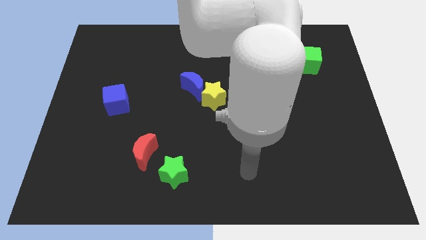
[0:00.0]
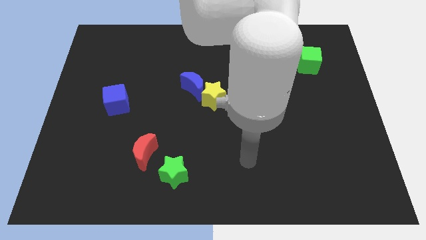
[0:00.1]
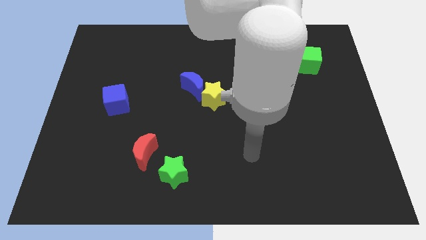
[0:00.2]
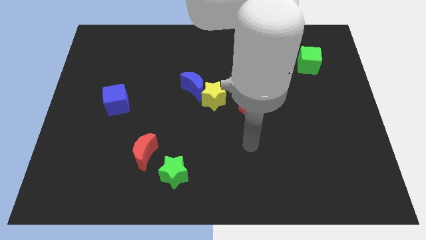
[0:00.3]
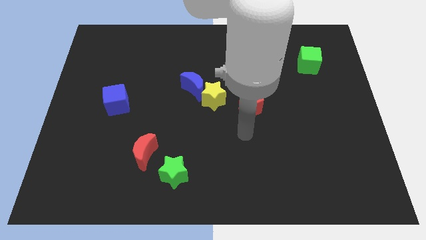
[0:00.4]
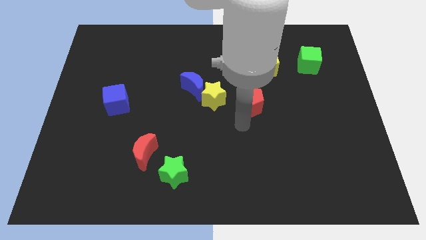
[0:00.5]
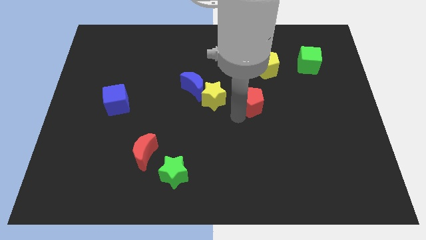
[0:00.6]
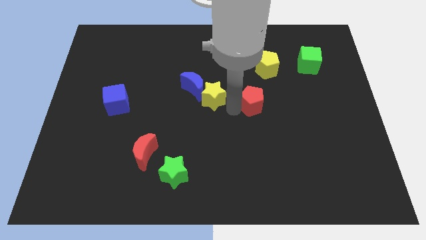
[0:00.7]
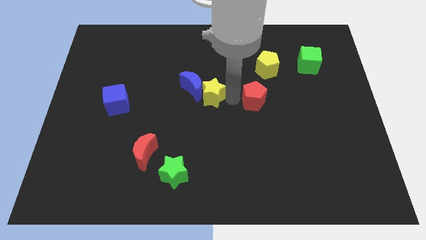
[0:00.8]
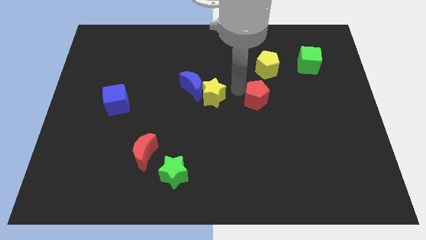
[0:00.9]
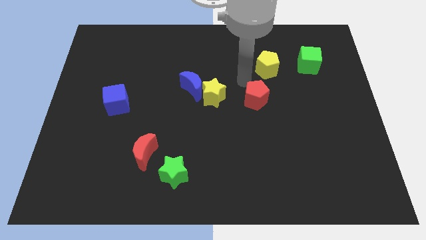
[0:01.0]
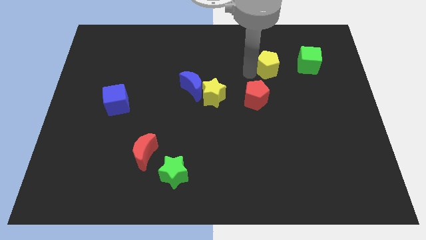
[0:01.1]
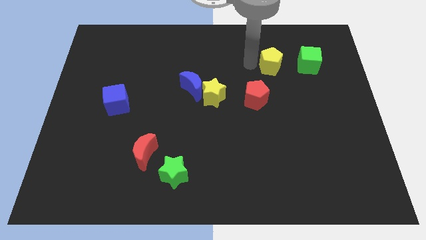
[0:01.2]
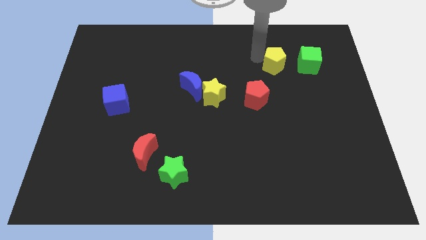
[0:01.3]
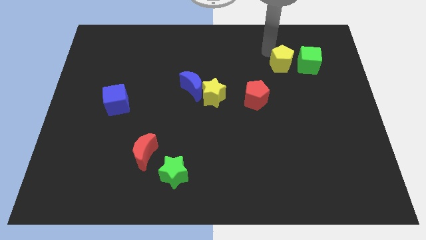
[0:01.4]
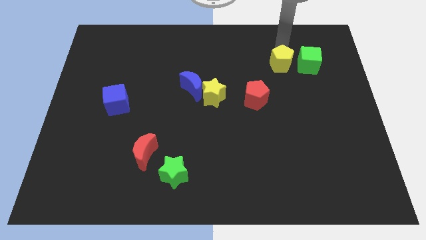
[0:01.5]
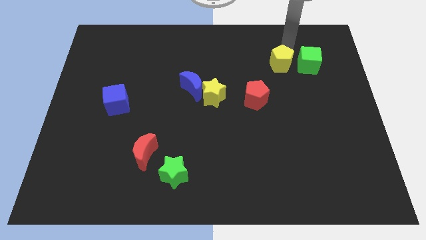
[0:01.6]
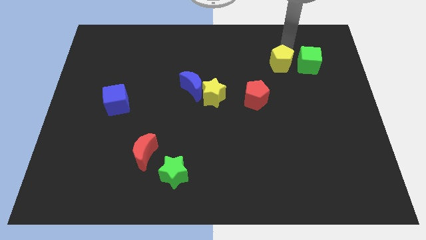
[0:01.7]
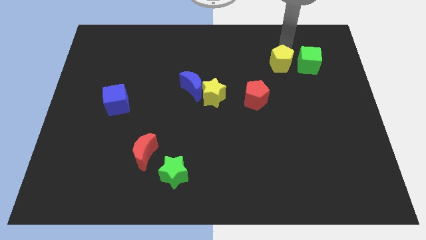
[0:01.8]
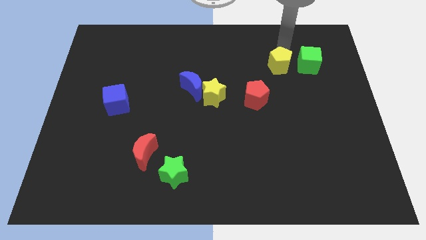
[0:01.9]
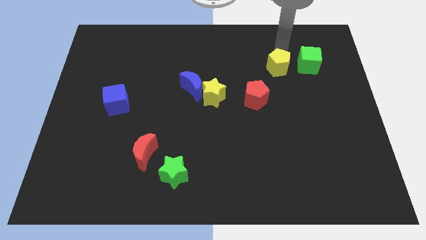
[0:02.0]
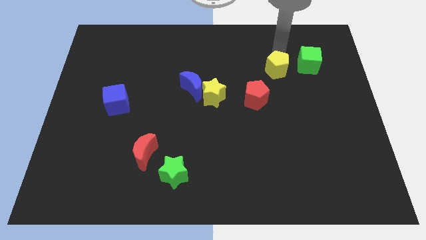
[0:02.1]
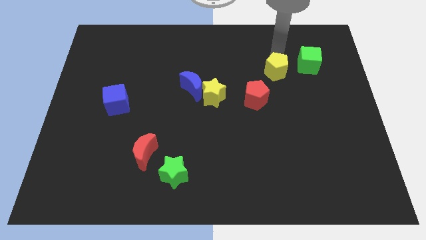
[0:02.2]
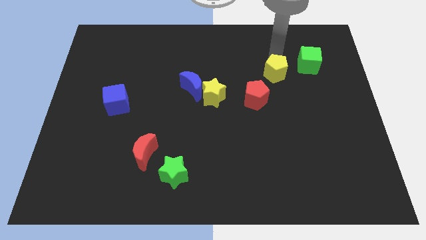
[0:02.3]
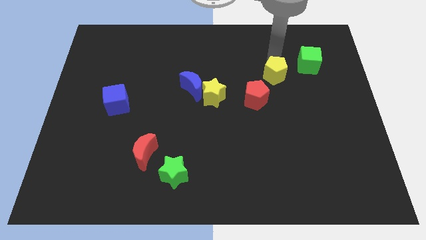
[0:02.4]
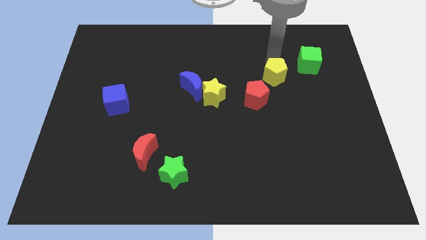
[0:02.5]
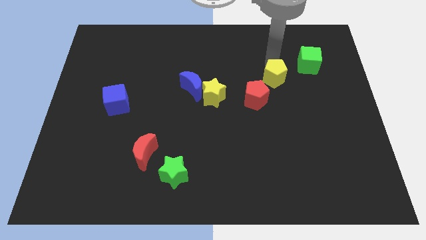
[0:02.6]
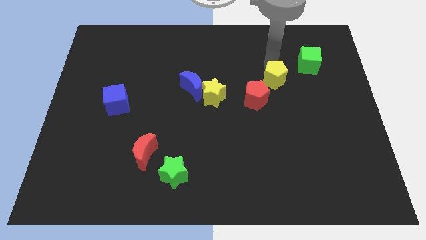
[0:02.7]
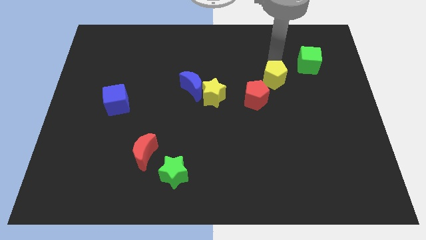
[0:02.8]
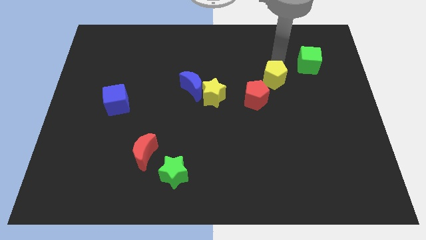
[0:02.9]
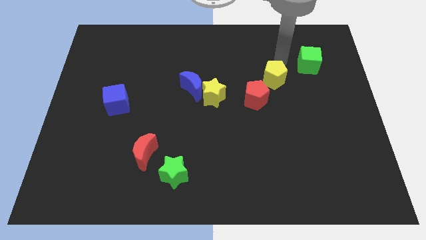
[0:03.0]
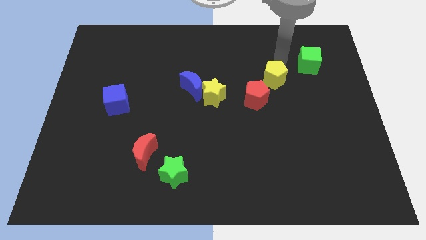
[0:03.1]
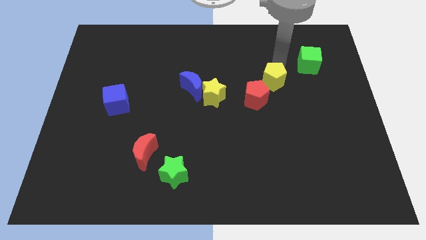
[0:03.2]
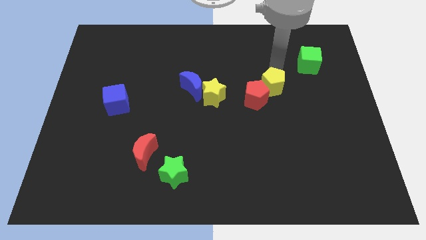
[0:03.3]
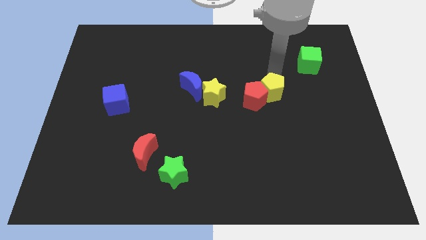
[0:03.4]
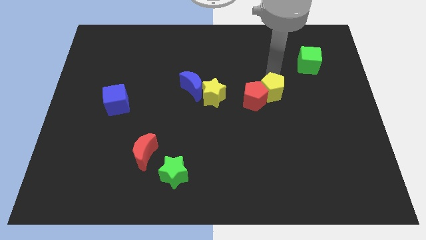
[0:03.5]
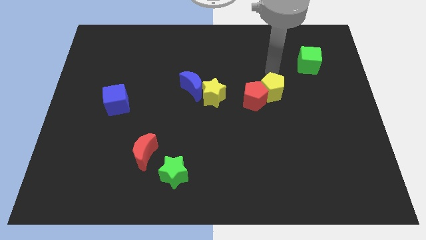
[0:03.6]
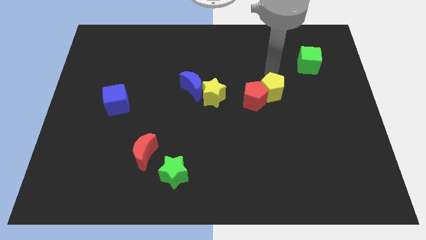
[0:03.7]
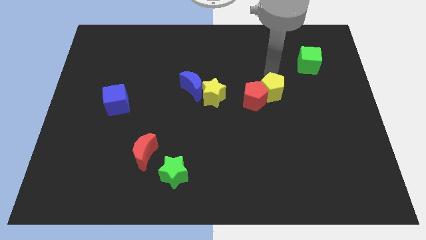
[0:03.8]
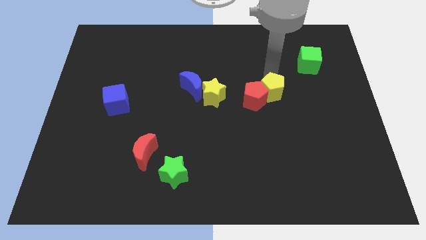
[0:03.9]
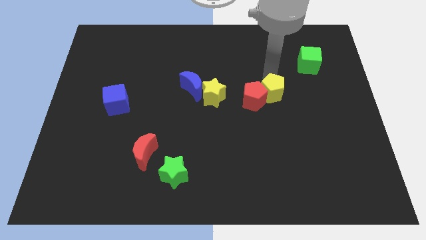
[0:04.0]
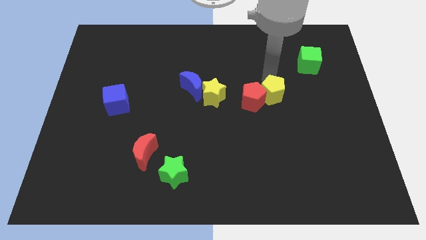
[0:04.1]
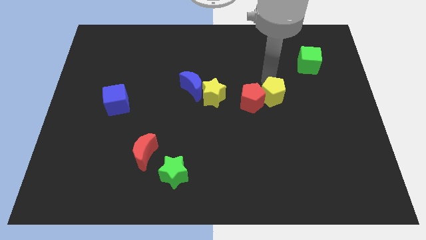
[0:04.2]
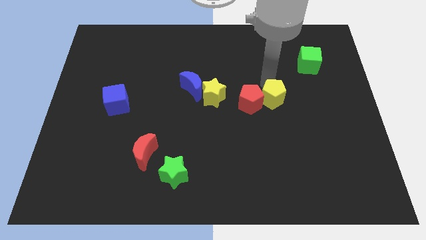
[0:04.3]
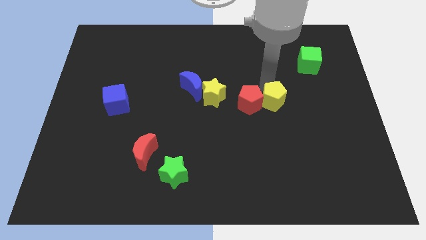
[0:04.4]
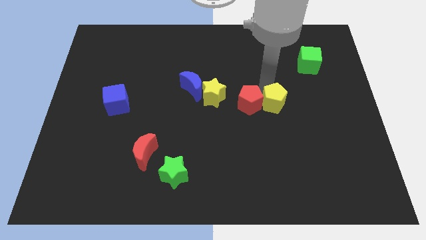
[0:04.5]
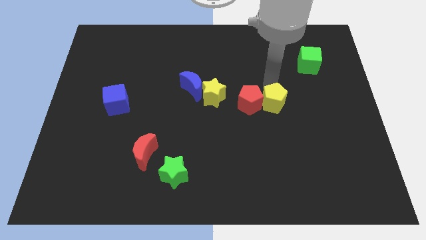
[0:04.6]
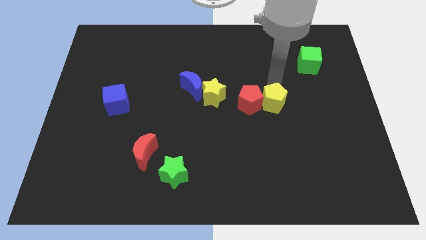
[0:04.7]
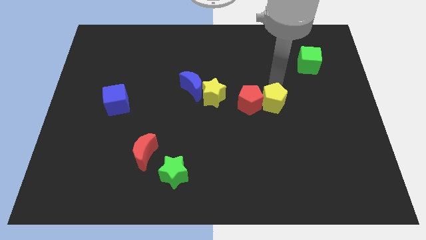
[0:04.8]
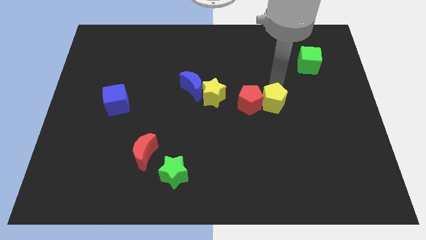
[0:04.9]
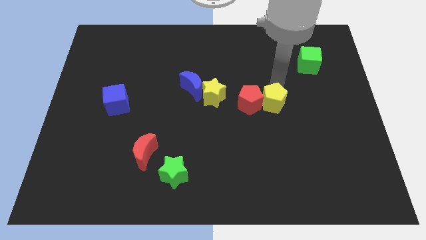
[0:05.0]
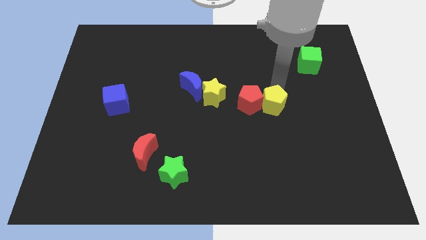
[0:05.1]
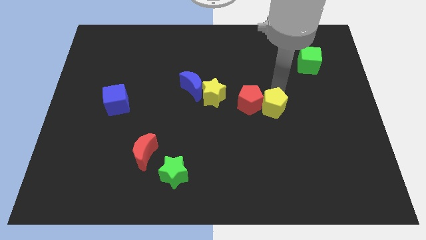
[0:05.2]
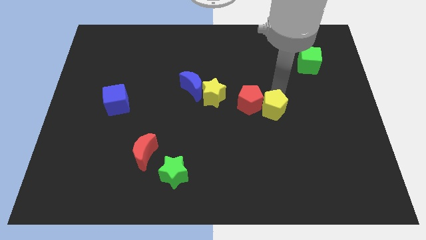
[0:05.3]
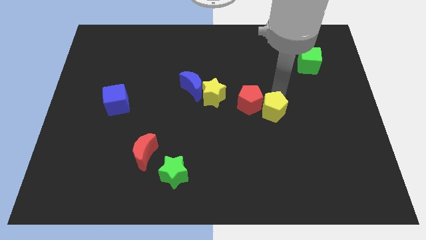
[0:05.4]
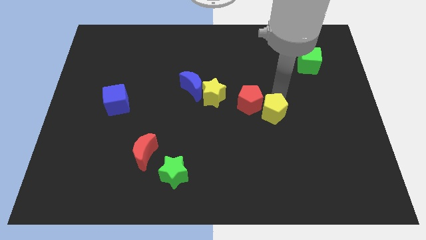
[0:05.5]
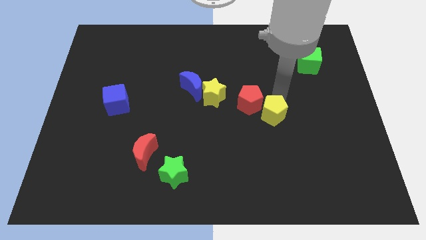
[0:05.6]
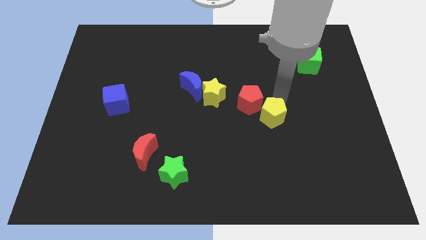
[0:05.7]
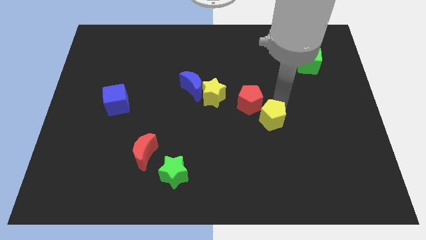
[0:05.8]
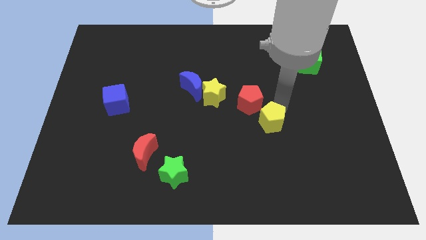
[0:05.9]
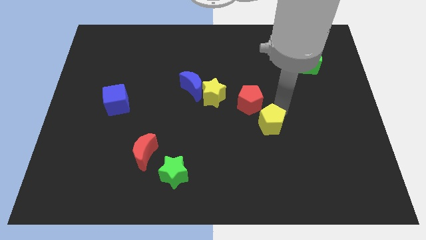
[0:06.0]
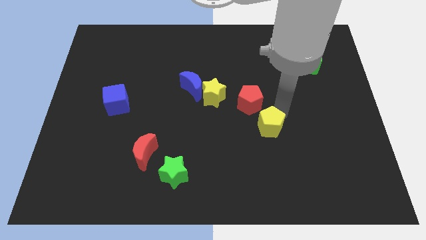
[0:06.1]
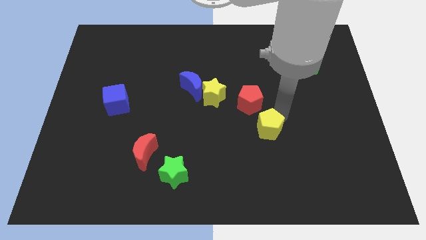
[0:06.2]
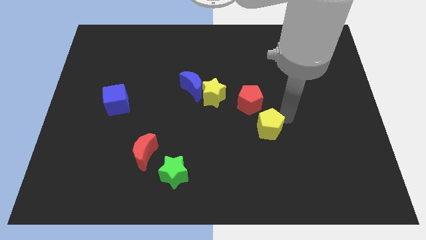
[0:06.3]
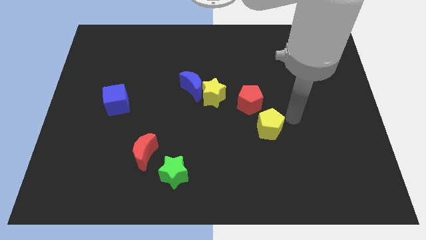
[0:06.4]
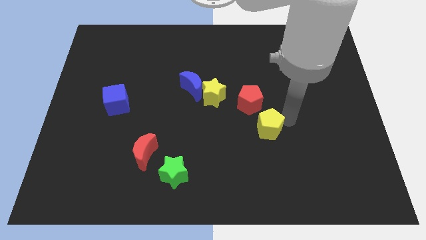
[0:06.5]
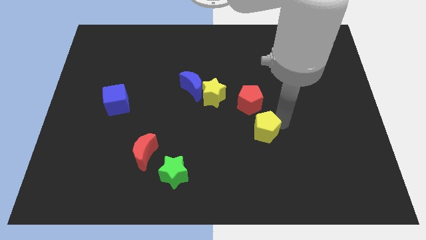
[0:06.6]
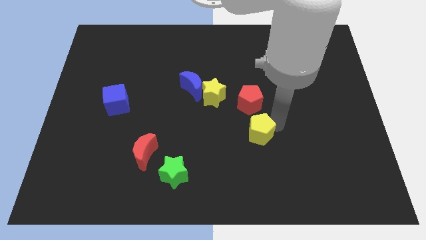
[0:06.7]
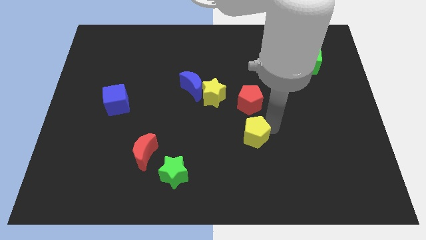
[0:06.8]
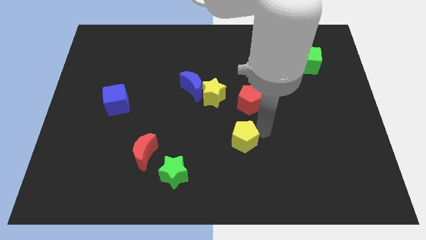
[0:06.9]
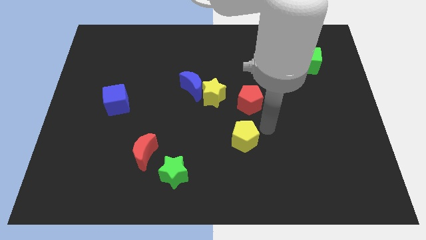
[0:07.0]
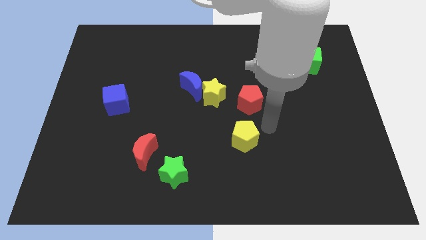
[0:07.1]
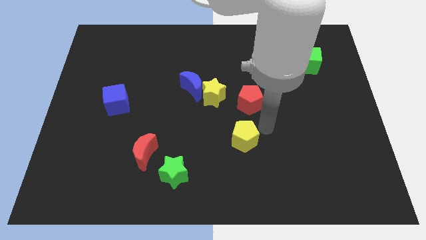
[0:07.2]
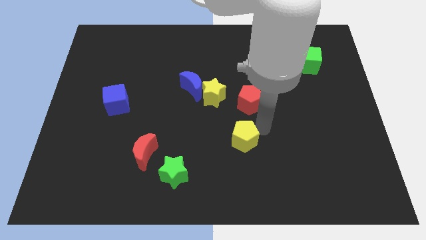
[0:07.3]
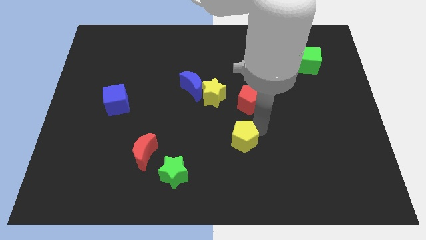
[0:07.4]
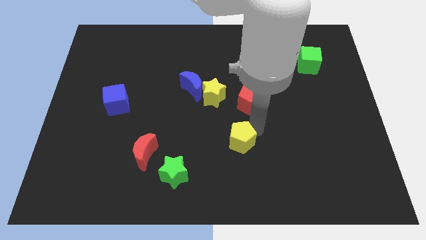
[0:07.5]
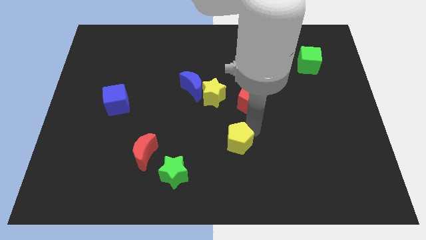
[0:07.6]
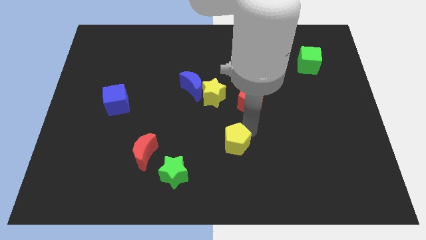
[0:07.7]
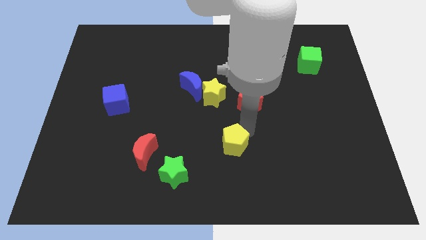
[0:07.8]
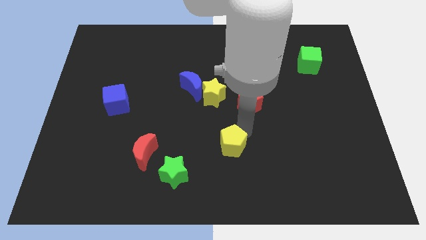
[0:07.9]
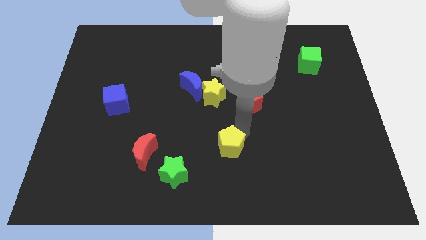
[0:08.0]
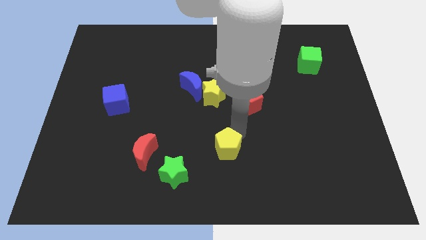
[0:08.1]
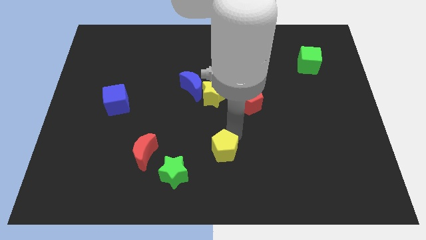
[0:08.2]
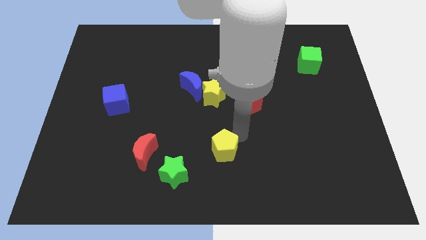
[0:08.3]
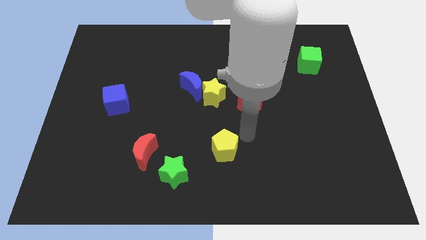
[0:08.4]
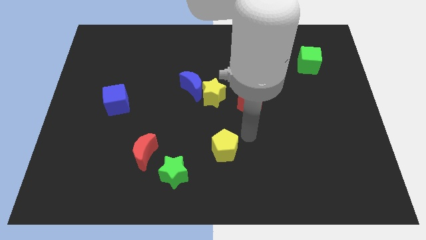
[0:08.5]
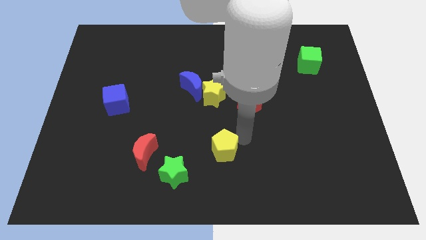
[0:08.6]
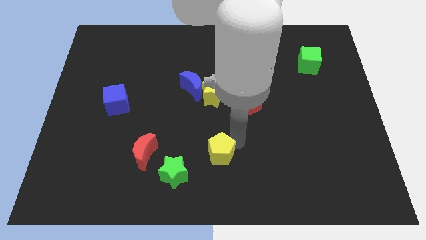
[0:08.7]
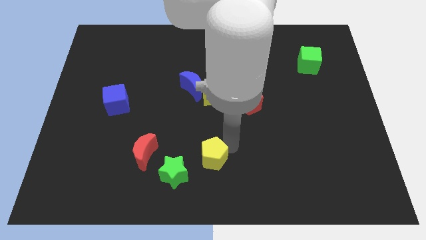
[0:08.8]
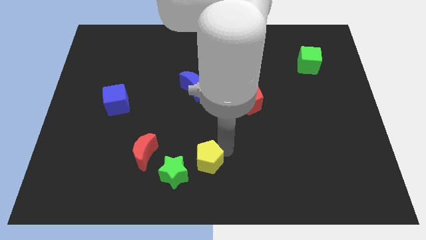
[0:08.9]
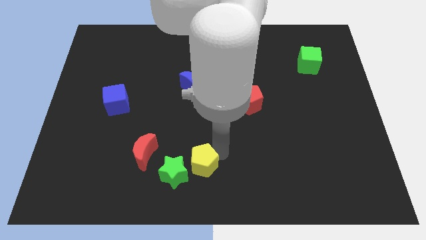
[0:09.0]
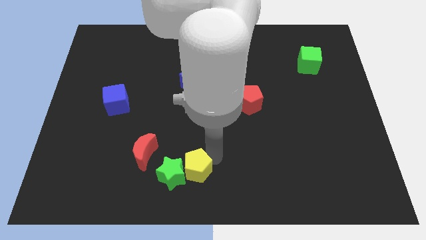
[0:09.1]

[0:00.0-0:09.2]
slide the yellow pentagon to the green star
